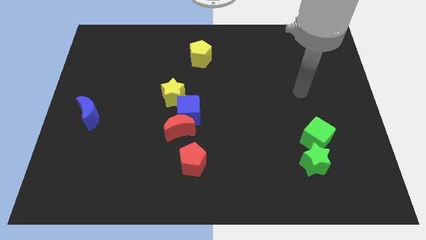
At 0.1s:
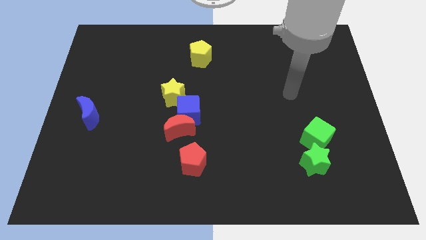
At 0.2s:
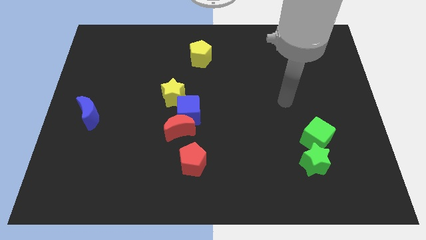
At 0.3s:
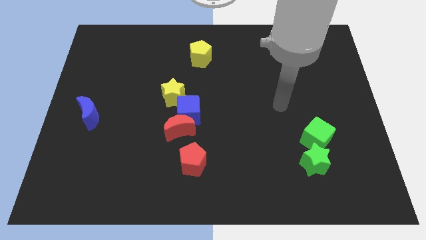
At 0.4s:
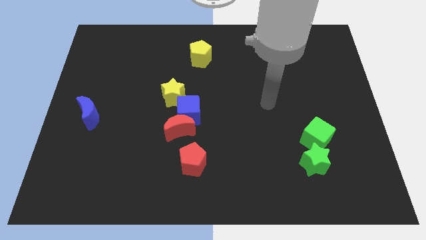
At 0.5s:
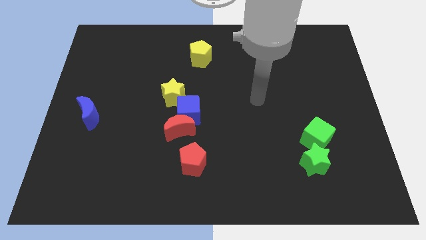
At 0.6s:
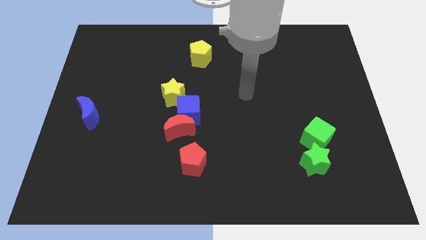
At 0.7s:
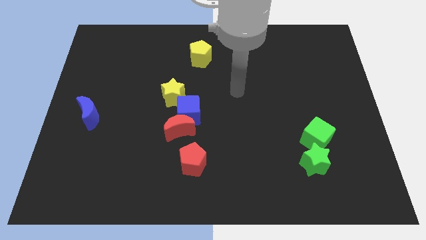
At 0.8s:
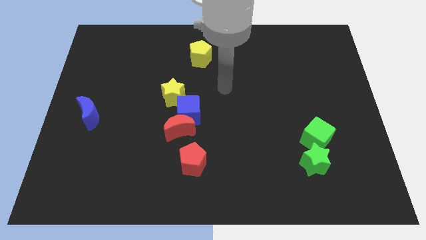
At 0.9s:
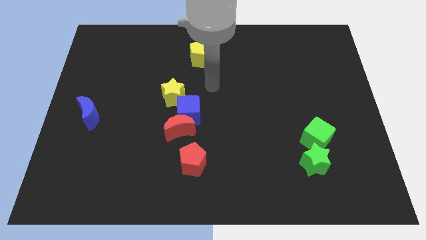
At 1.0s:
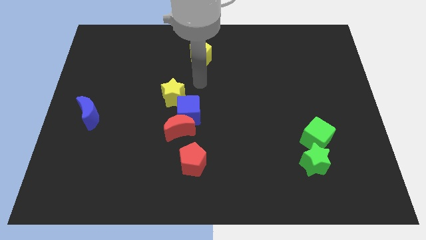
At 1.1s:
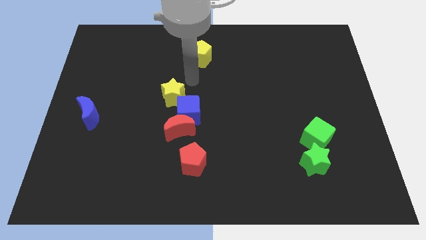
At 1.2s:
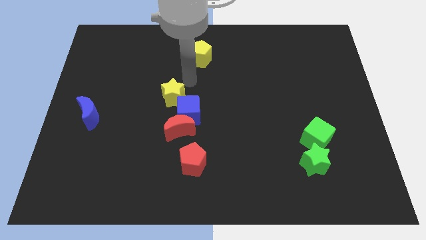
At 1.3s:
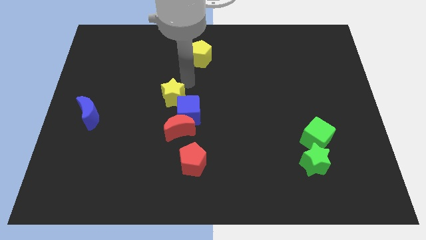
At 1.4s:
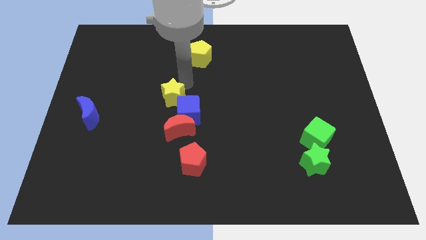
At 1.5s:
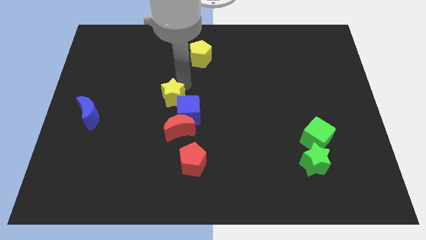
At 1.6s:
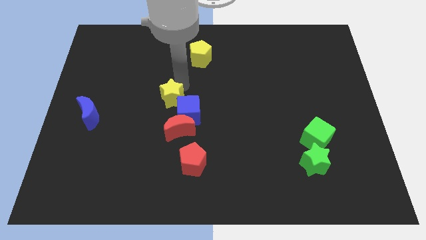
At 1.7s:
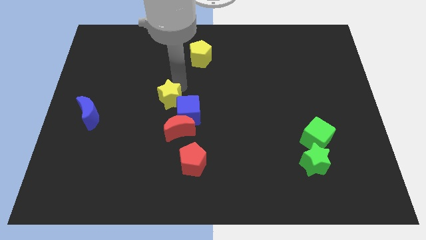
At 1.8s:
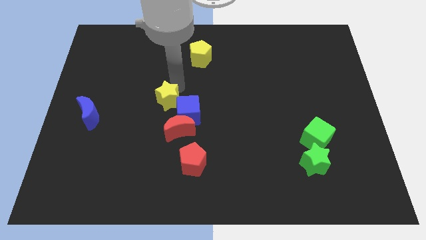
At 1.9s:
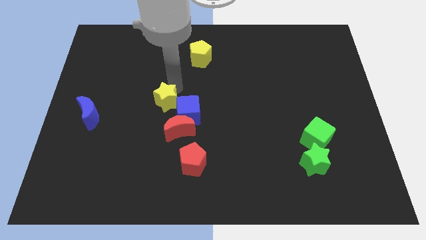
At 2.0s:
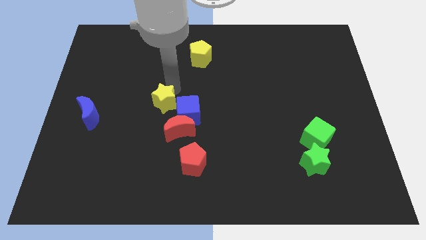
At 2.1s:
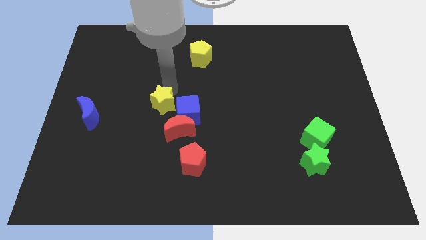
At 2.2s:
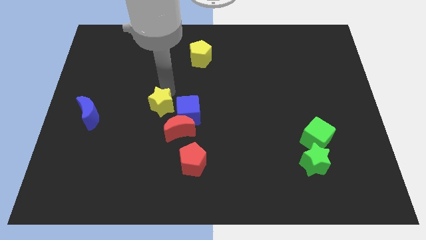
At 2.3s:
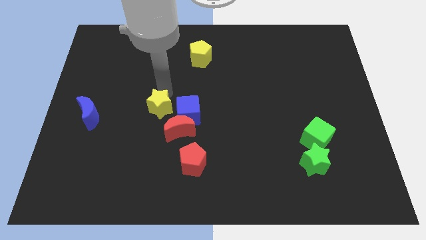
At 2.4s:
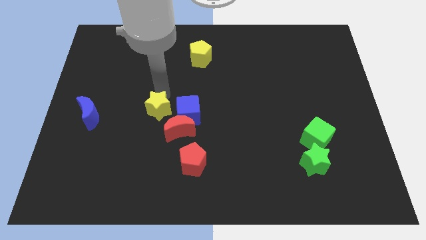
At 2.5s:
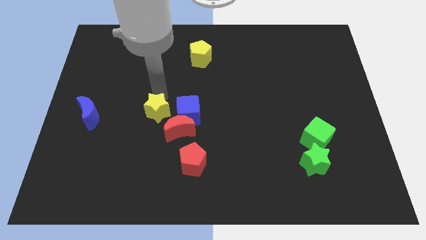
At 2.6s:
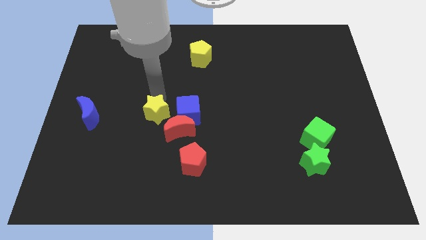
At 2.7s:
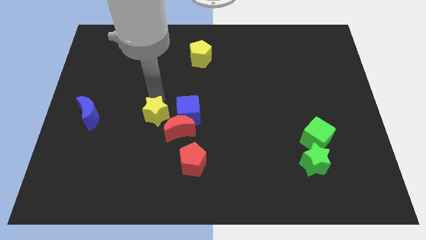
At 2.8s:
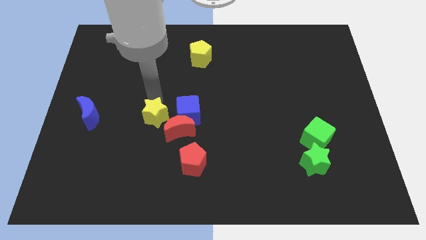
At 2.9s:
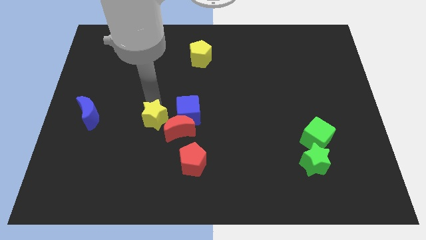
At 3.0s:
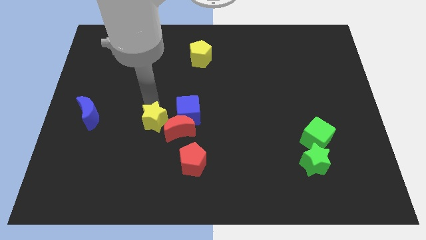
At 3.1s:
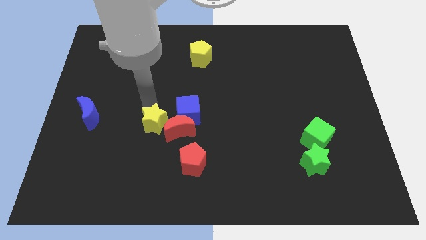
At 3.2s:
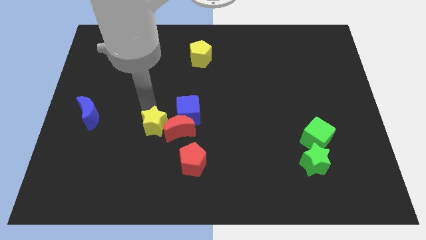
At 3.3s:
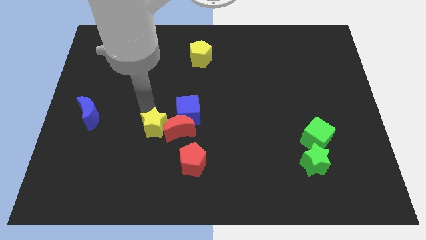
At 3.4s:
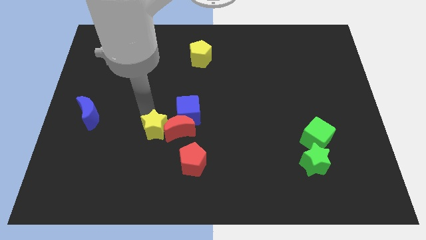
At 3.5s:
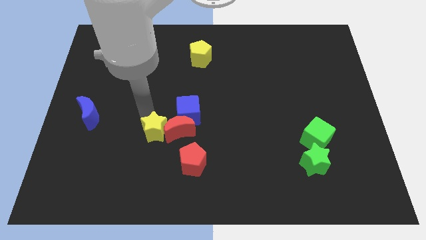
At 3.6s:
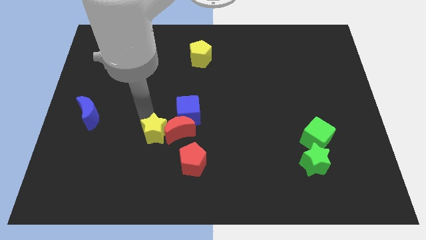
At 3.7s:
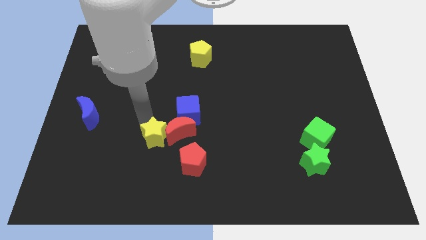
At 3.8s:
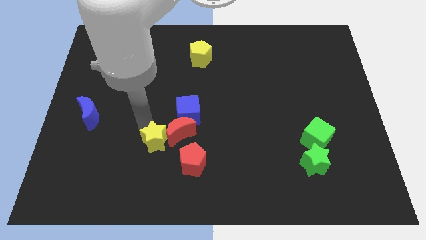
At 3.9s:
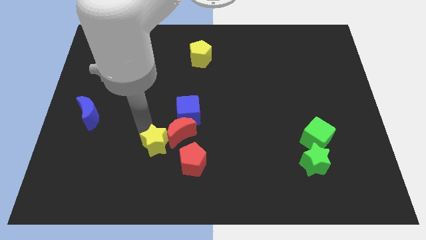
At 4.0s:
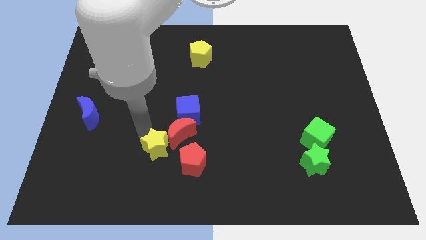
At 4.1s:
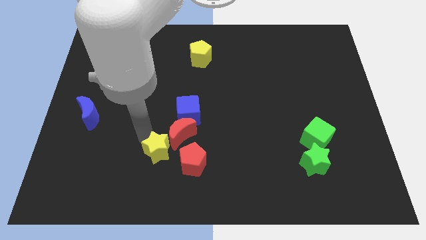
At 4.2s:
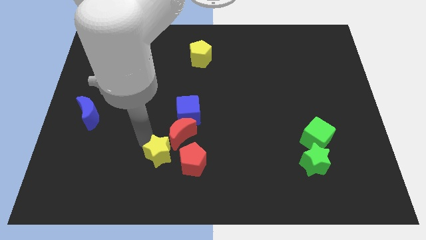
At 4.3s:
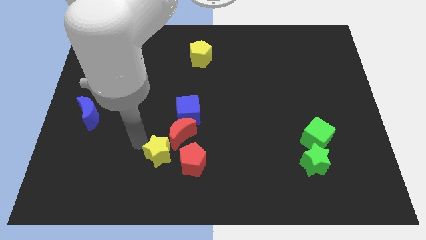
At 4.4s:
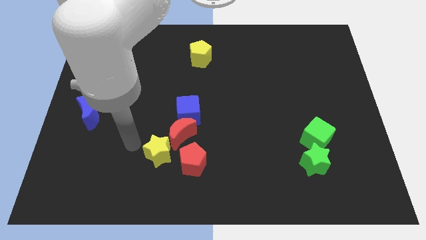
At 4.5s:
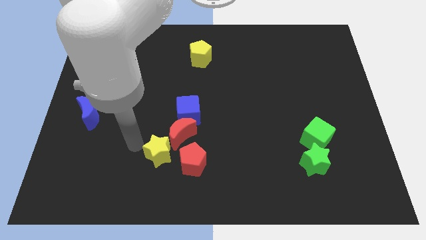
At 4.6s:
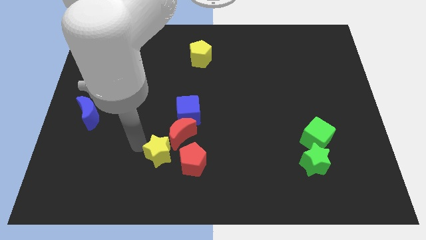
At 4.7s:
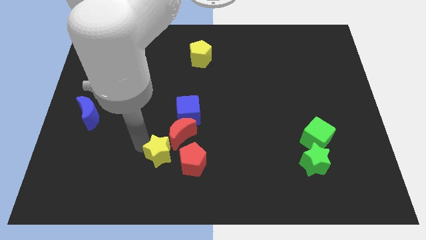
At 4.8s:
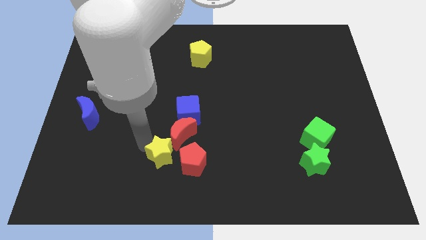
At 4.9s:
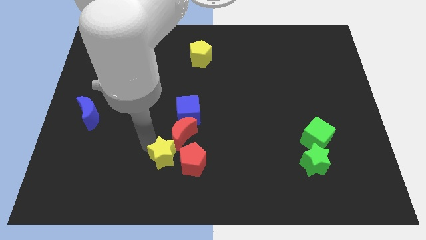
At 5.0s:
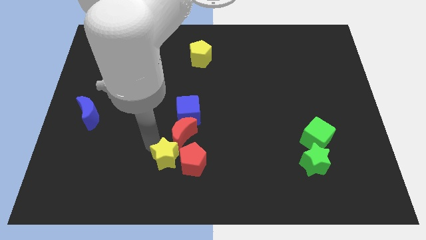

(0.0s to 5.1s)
put the yellow star close to the red pentagon

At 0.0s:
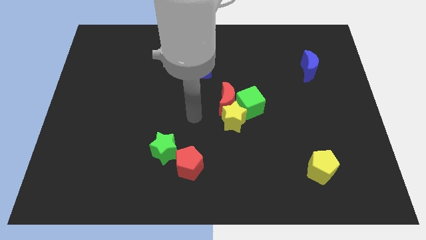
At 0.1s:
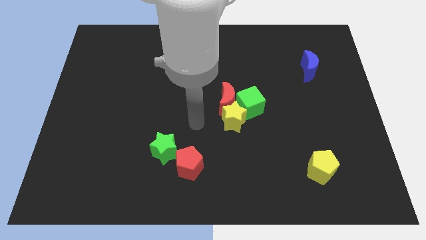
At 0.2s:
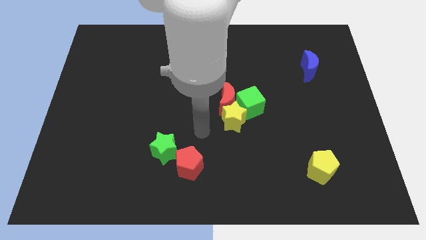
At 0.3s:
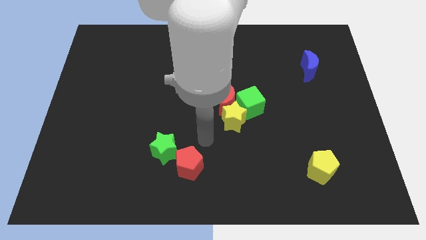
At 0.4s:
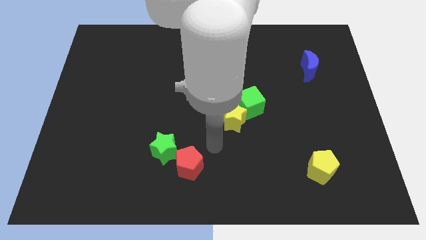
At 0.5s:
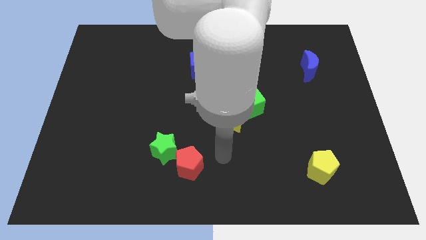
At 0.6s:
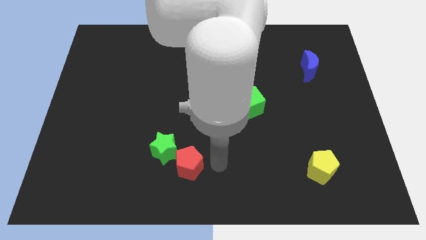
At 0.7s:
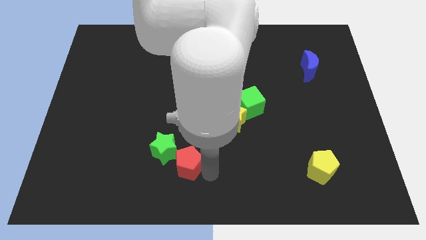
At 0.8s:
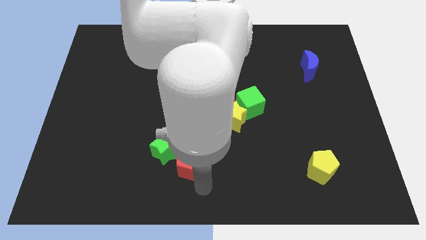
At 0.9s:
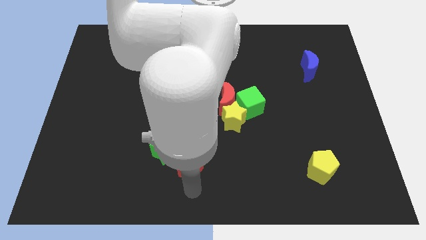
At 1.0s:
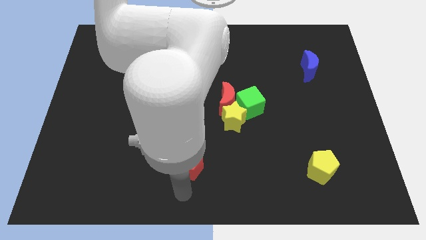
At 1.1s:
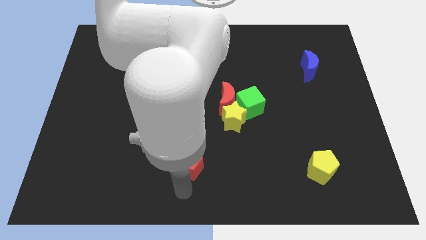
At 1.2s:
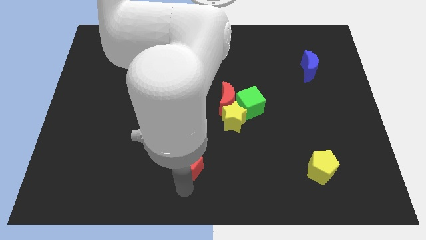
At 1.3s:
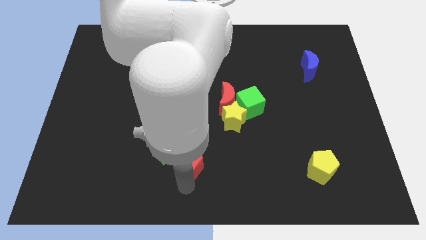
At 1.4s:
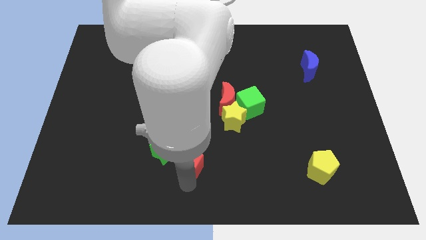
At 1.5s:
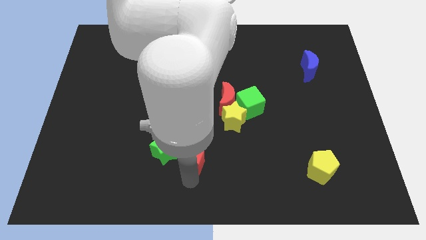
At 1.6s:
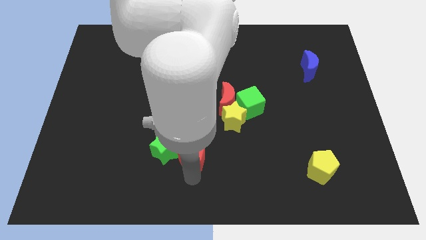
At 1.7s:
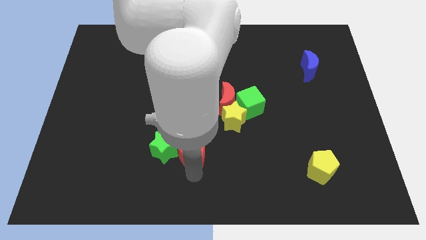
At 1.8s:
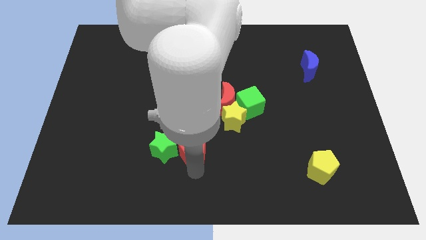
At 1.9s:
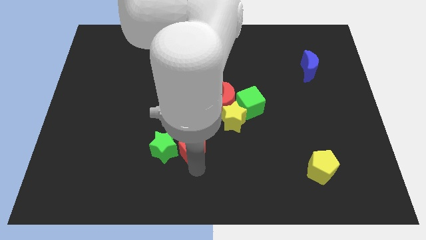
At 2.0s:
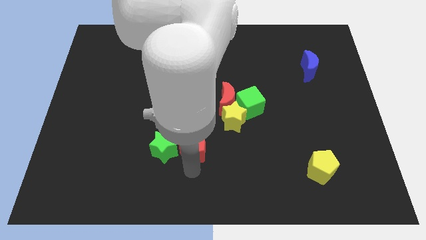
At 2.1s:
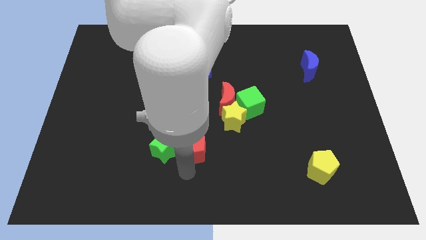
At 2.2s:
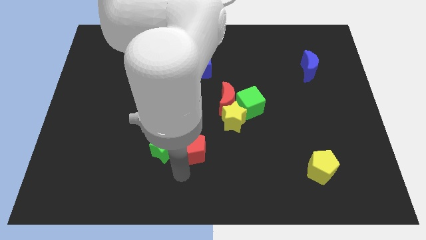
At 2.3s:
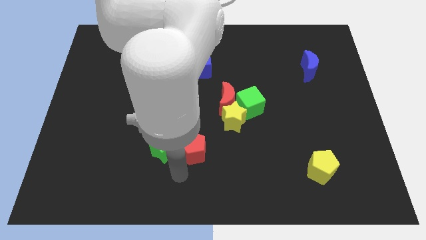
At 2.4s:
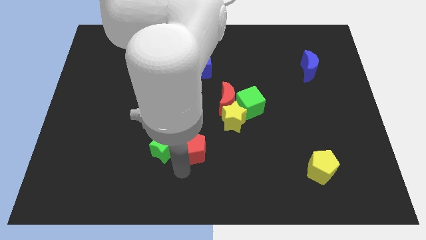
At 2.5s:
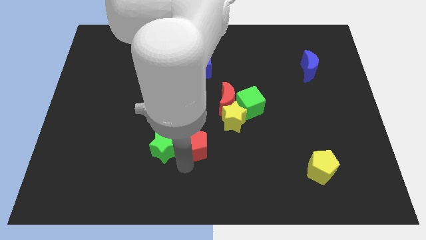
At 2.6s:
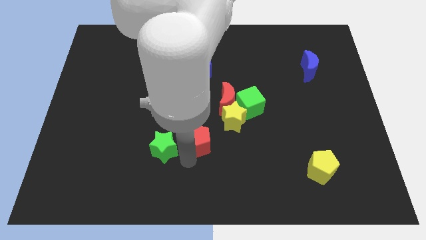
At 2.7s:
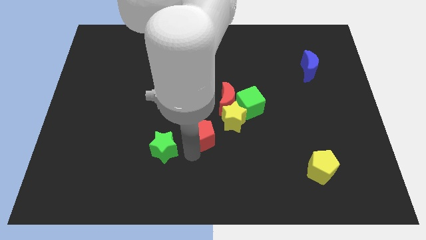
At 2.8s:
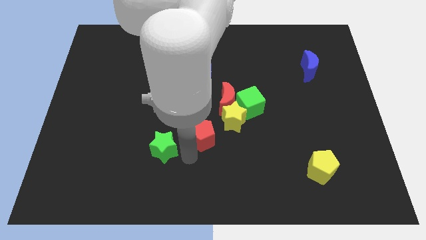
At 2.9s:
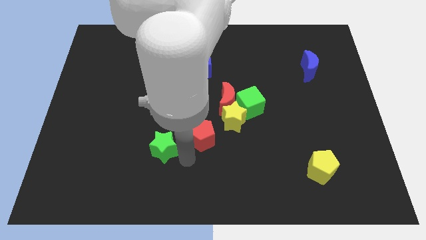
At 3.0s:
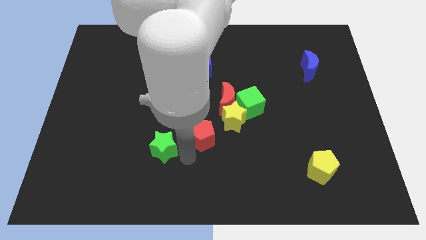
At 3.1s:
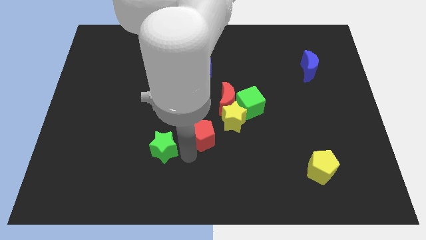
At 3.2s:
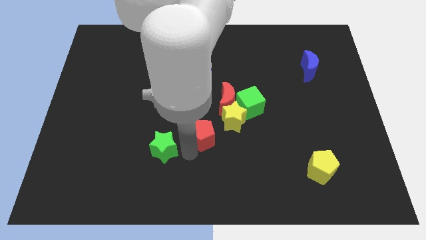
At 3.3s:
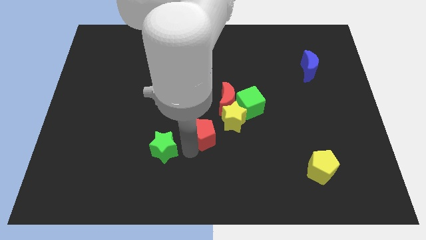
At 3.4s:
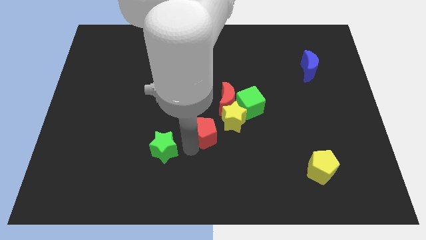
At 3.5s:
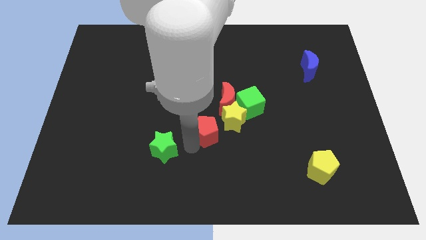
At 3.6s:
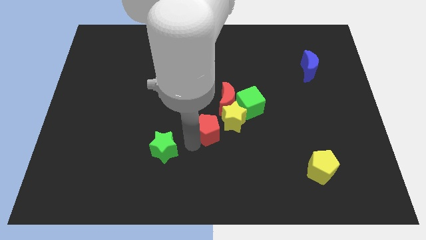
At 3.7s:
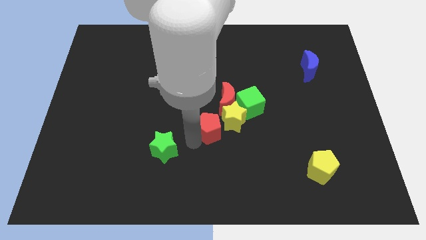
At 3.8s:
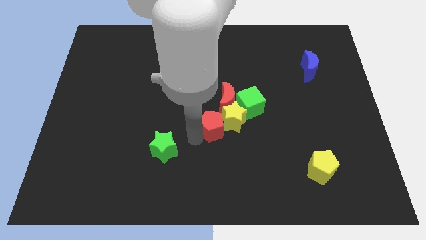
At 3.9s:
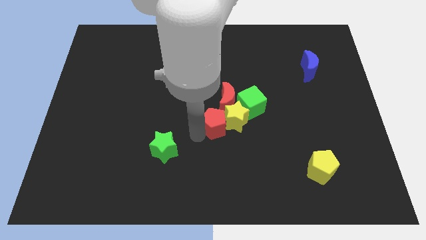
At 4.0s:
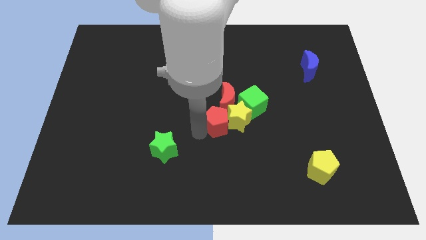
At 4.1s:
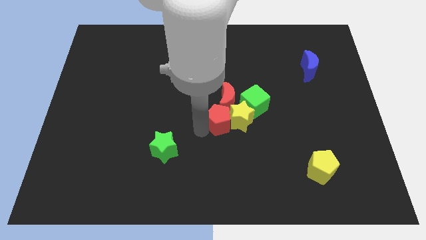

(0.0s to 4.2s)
push the red pentagon next to the red moon
